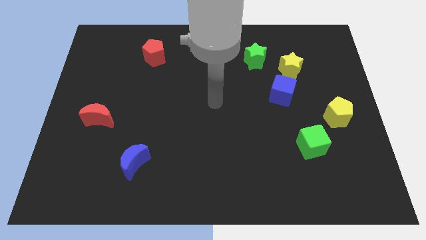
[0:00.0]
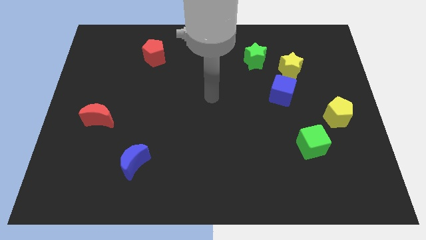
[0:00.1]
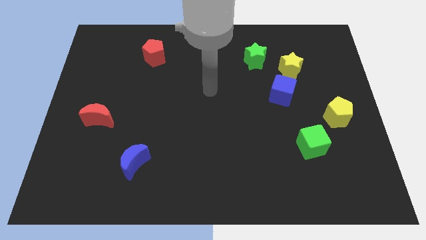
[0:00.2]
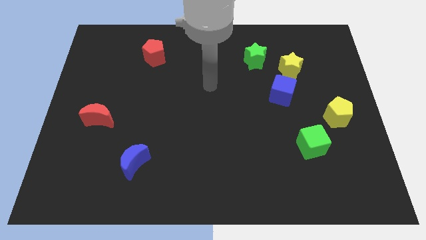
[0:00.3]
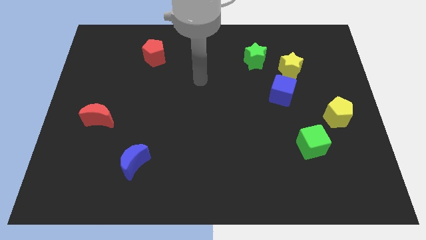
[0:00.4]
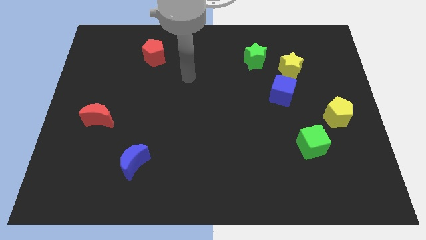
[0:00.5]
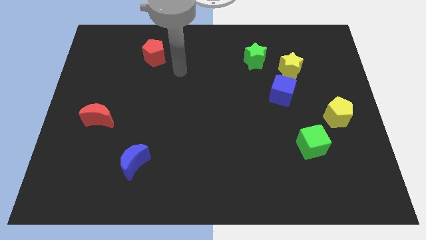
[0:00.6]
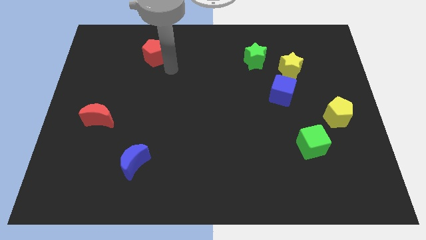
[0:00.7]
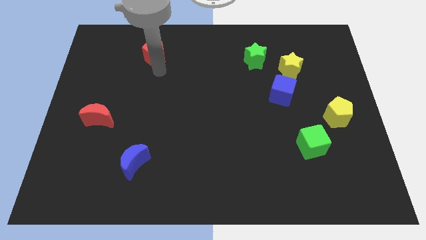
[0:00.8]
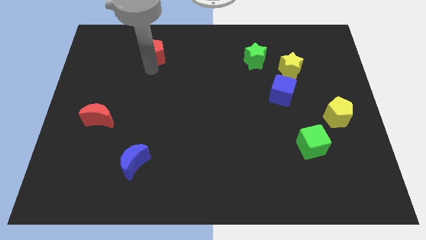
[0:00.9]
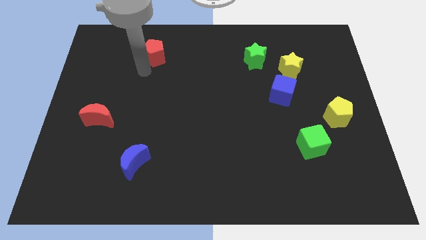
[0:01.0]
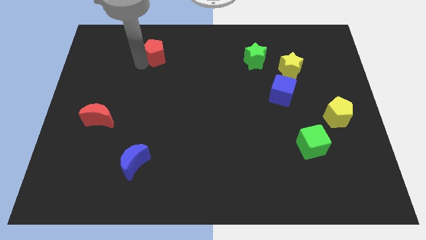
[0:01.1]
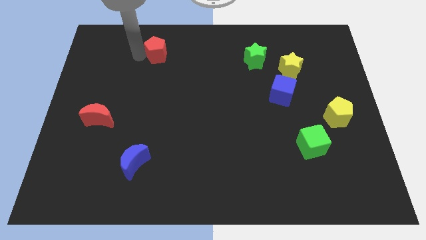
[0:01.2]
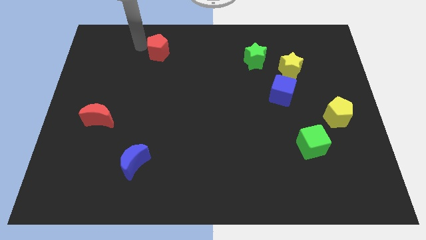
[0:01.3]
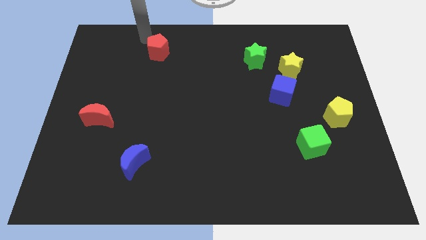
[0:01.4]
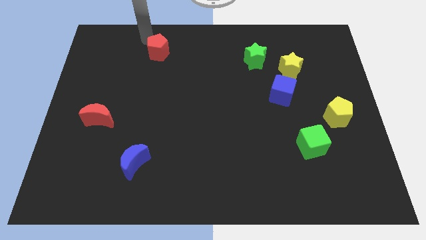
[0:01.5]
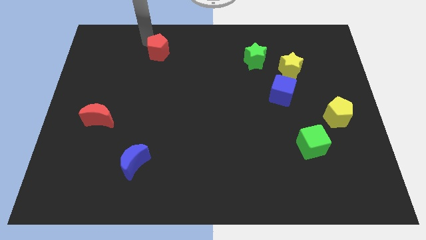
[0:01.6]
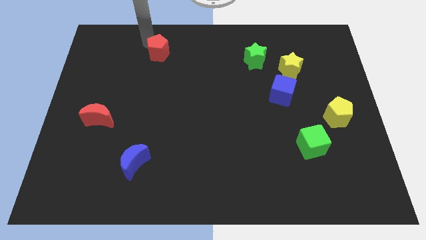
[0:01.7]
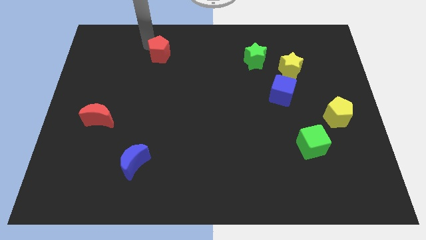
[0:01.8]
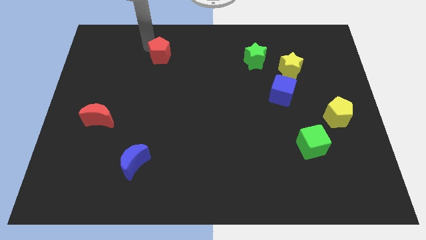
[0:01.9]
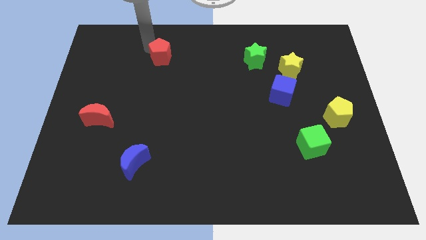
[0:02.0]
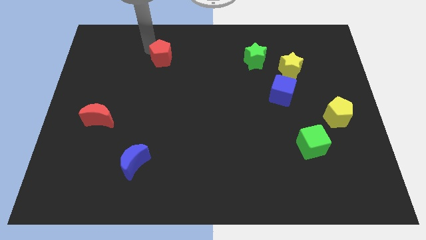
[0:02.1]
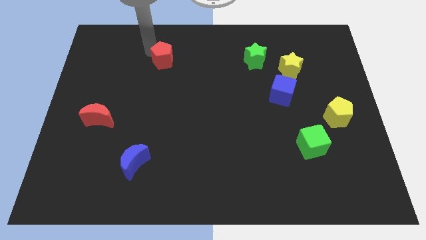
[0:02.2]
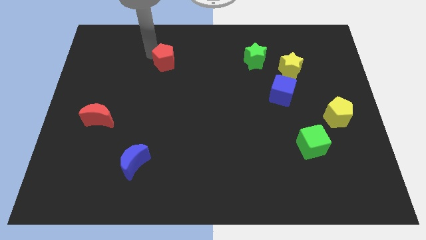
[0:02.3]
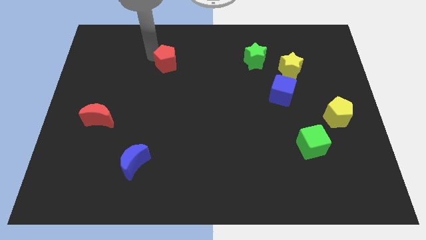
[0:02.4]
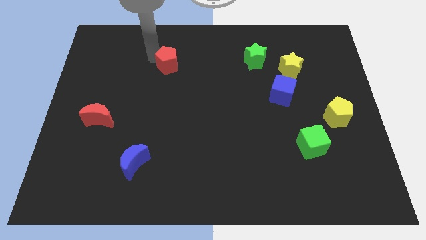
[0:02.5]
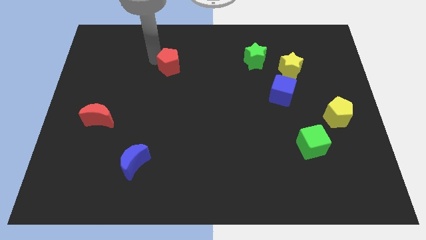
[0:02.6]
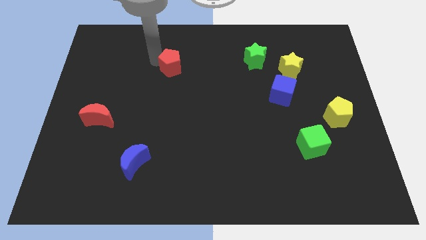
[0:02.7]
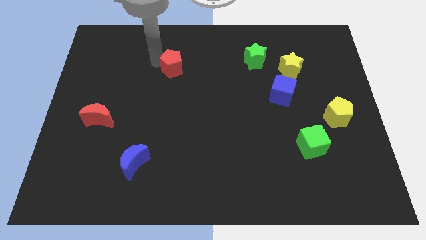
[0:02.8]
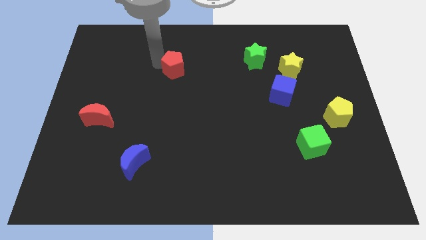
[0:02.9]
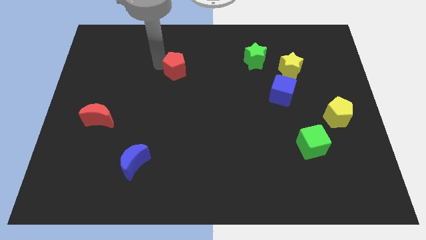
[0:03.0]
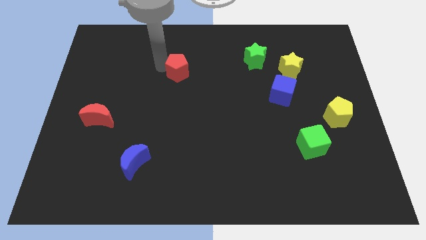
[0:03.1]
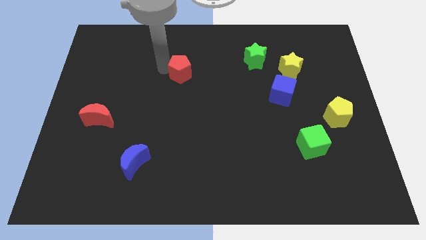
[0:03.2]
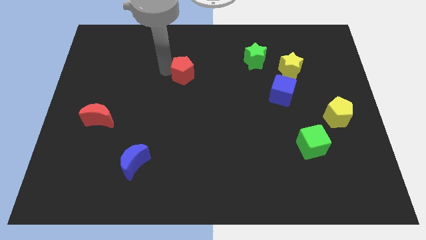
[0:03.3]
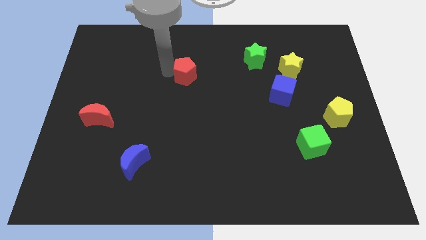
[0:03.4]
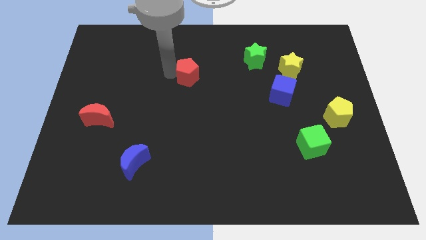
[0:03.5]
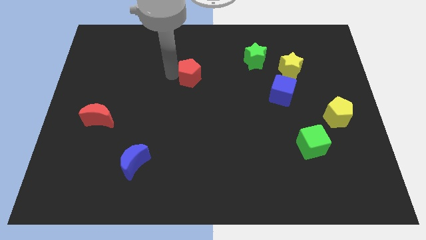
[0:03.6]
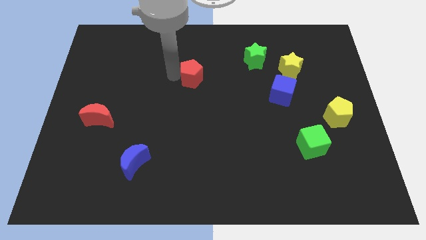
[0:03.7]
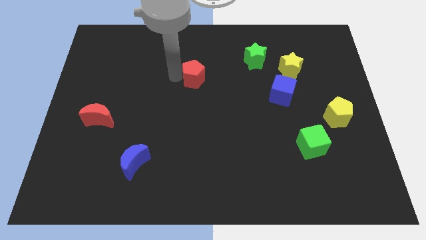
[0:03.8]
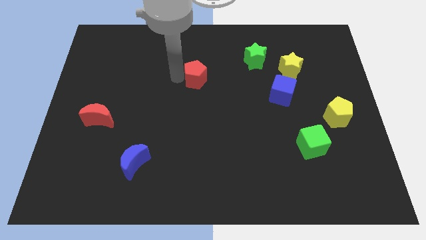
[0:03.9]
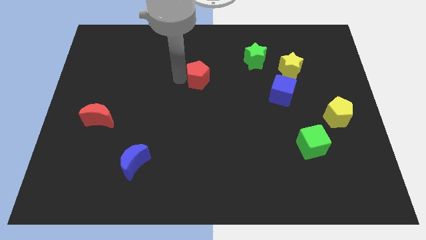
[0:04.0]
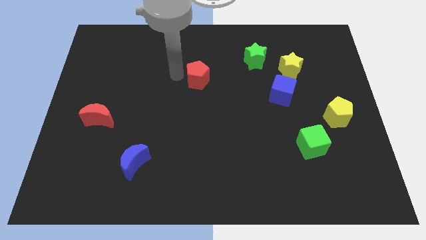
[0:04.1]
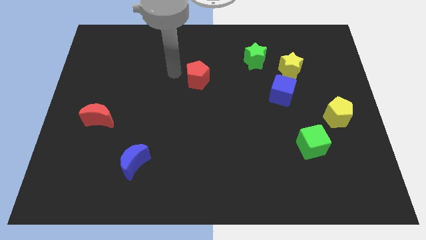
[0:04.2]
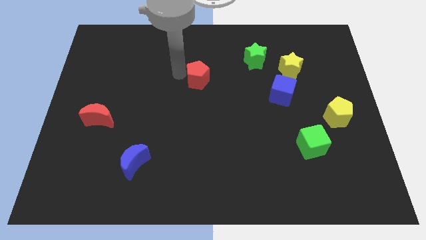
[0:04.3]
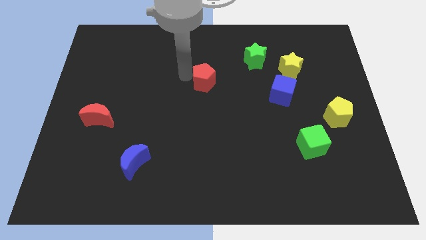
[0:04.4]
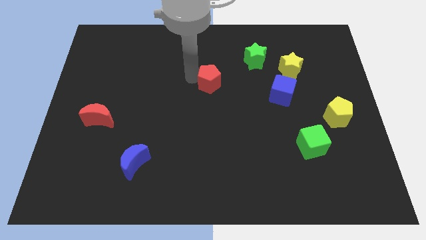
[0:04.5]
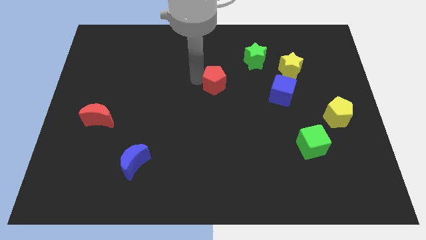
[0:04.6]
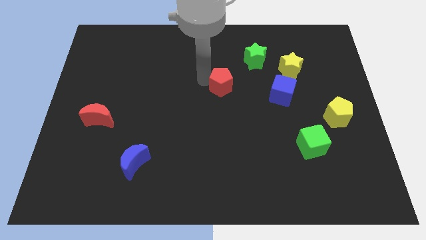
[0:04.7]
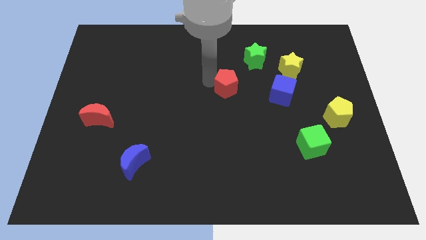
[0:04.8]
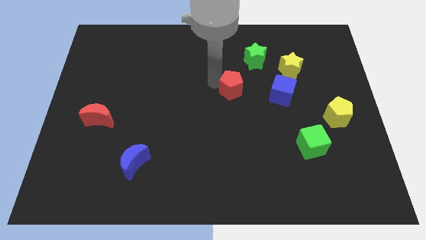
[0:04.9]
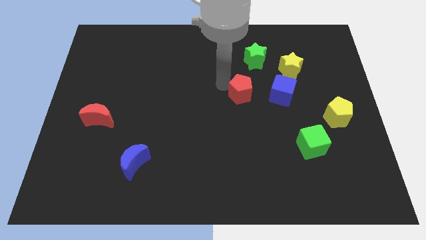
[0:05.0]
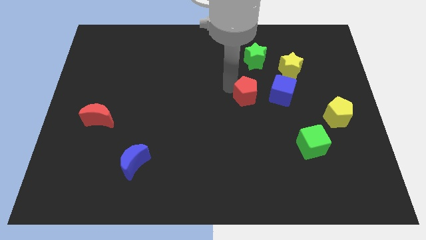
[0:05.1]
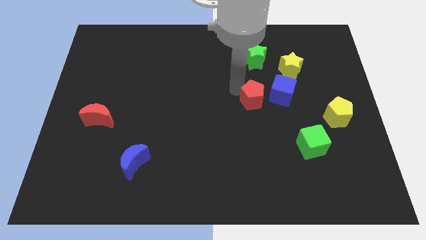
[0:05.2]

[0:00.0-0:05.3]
push the red pentagon to the bottom left of the blue cube

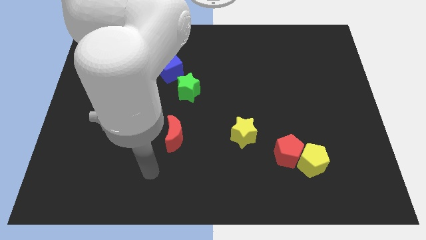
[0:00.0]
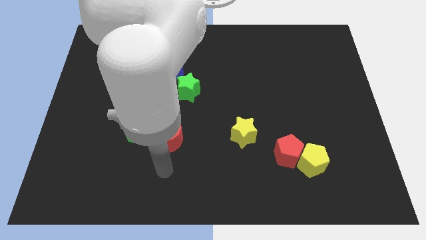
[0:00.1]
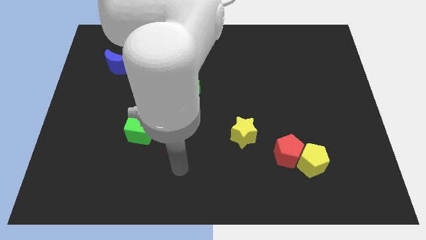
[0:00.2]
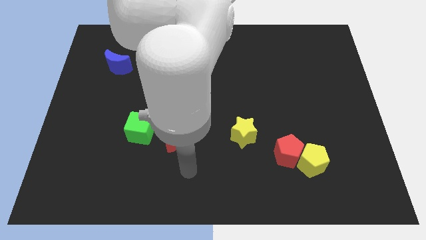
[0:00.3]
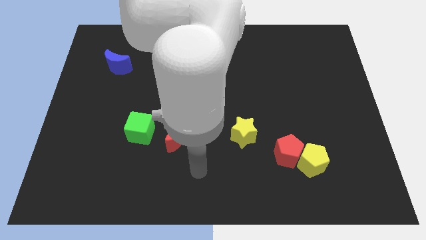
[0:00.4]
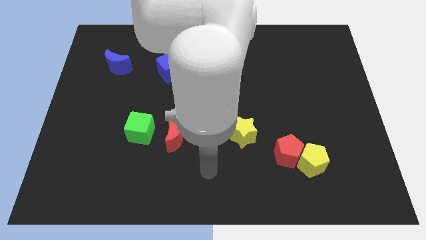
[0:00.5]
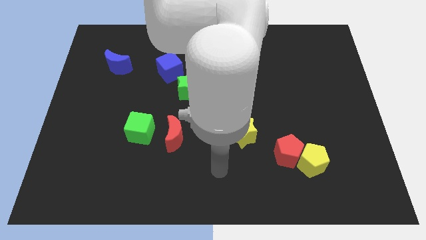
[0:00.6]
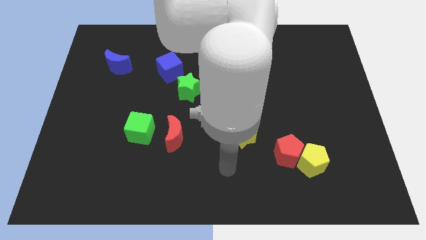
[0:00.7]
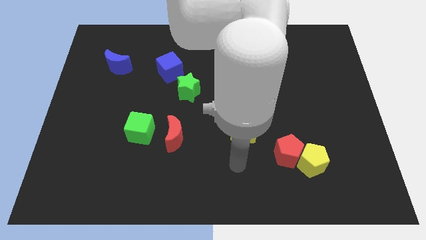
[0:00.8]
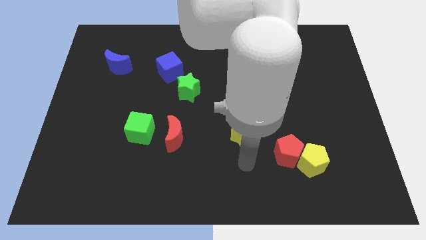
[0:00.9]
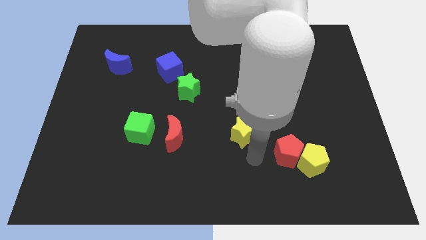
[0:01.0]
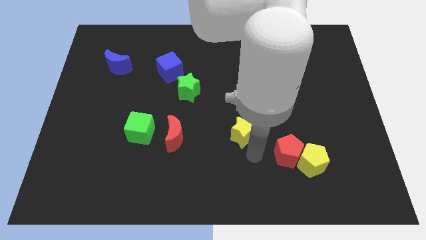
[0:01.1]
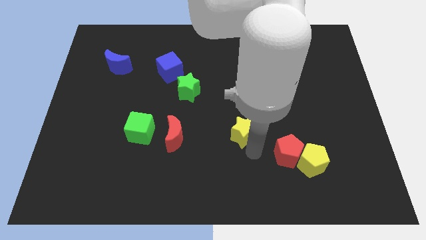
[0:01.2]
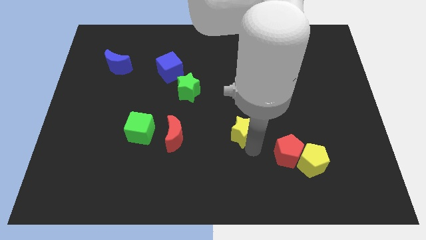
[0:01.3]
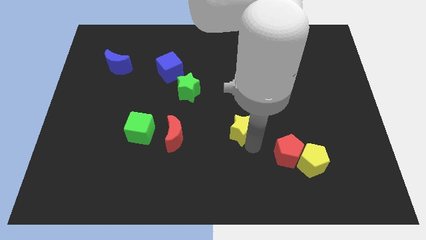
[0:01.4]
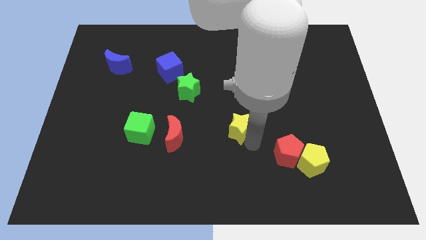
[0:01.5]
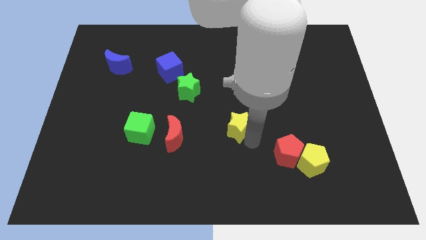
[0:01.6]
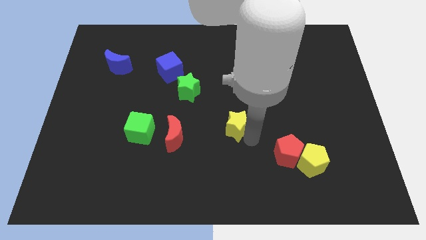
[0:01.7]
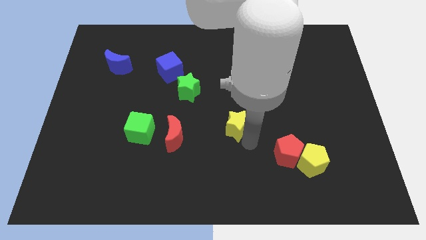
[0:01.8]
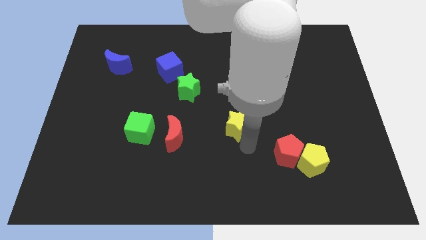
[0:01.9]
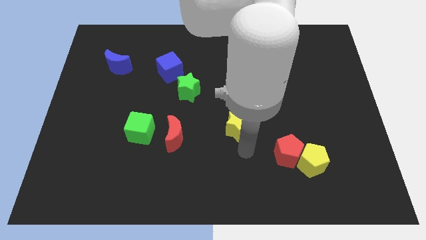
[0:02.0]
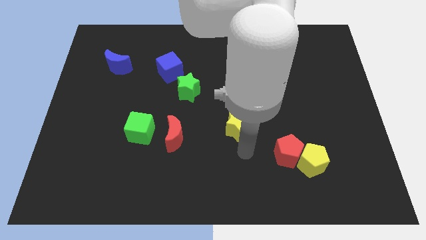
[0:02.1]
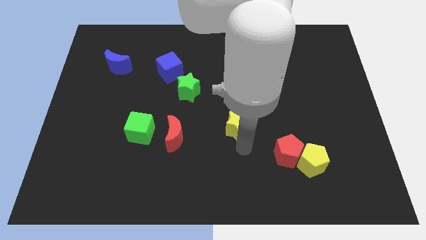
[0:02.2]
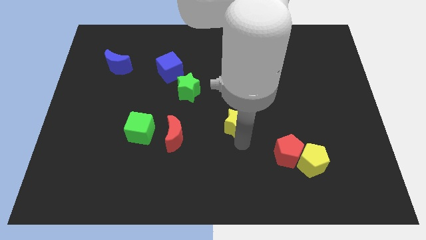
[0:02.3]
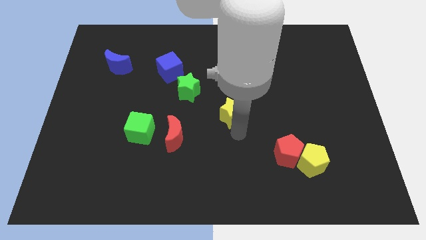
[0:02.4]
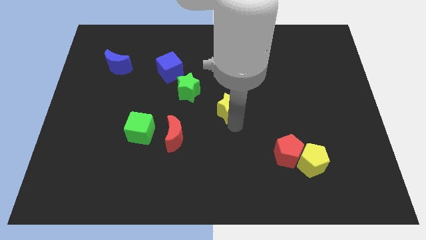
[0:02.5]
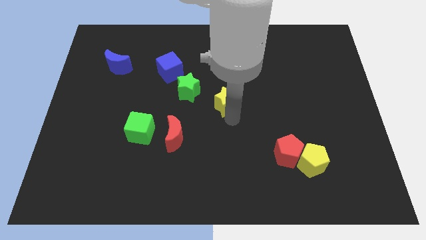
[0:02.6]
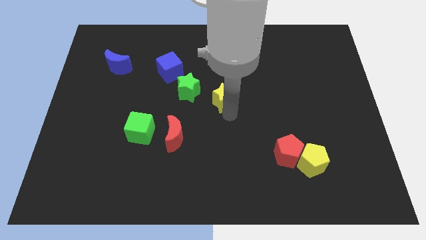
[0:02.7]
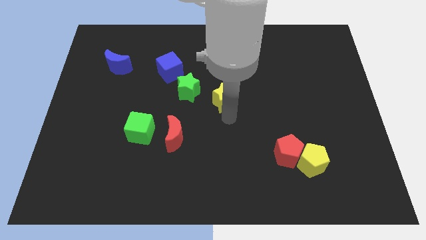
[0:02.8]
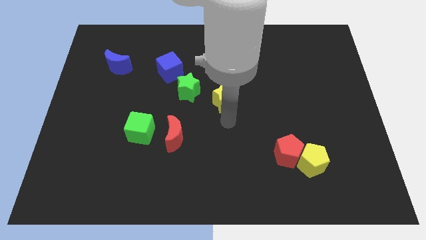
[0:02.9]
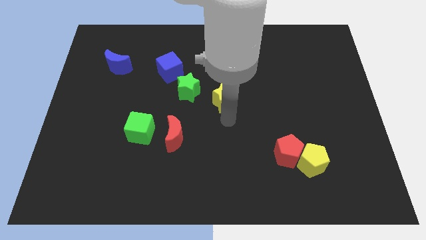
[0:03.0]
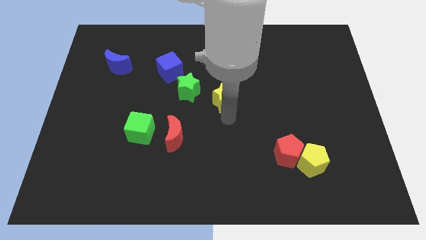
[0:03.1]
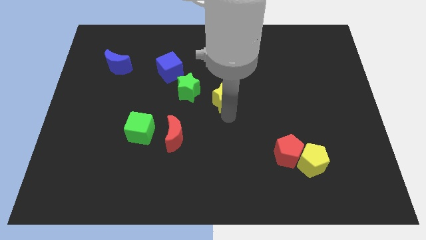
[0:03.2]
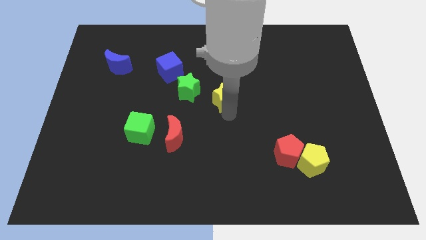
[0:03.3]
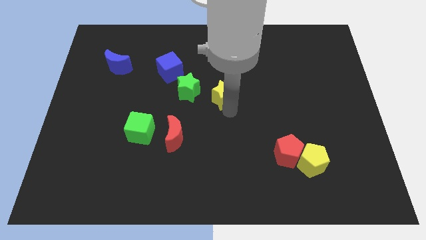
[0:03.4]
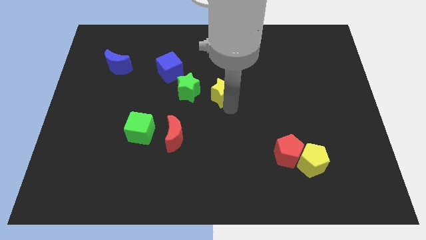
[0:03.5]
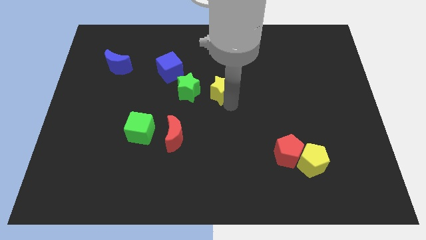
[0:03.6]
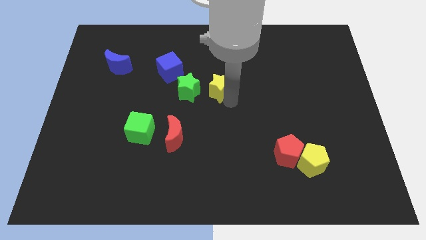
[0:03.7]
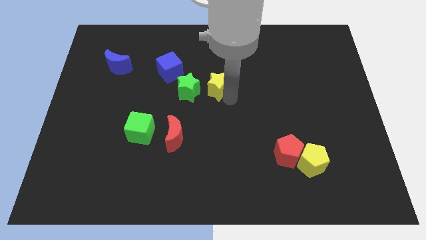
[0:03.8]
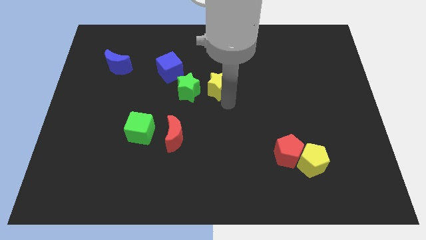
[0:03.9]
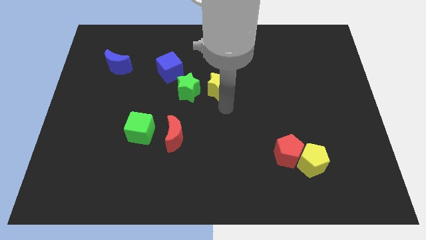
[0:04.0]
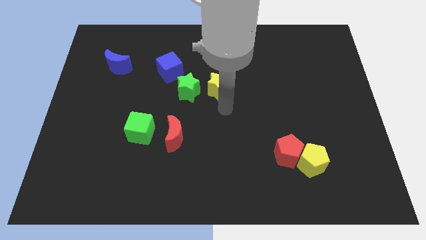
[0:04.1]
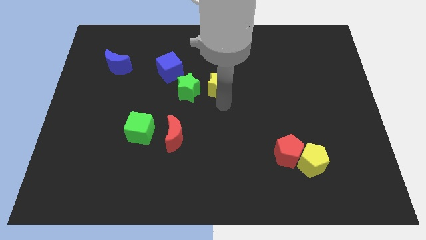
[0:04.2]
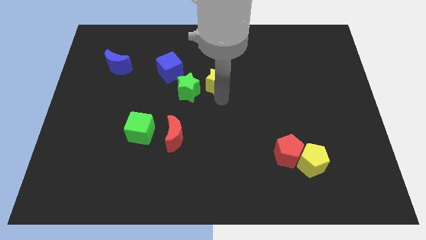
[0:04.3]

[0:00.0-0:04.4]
push the yellow star just right of the blue cube
